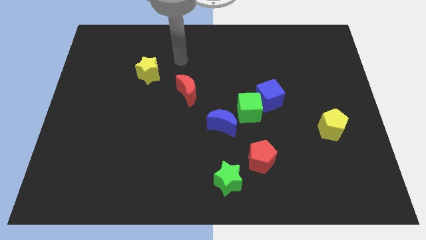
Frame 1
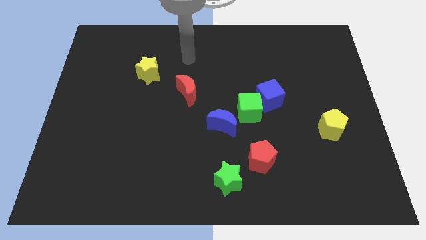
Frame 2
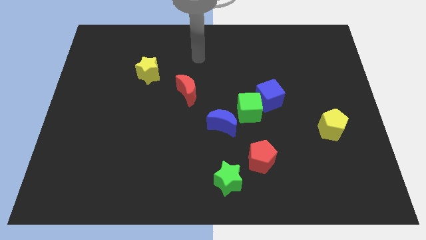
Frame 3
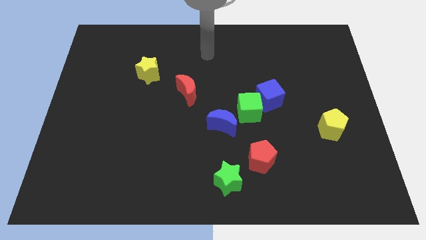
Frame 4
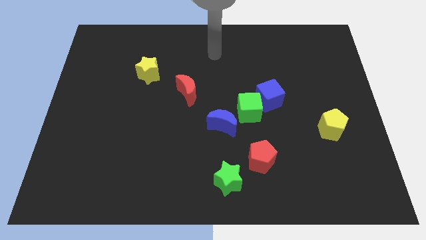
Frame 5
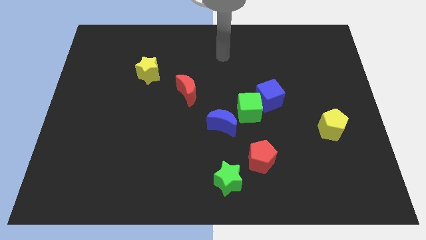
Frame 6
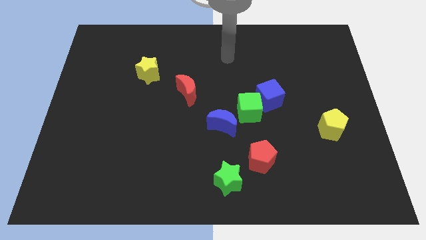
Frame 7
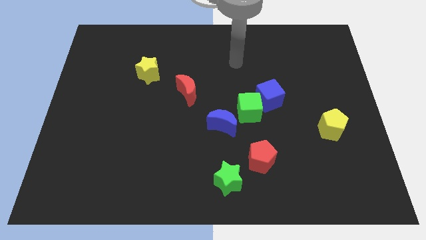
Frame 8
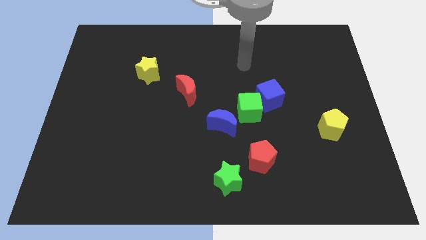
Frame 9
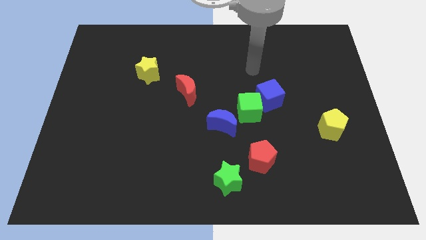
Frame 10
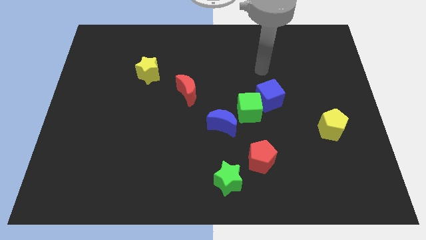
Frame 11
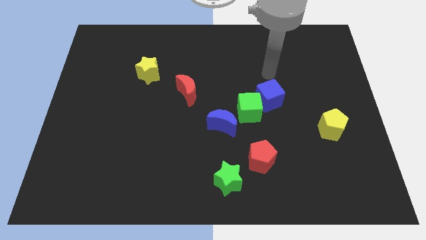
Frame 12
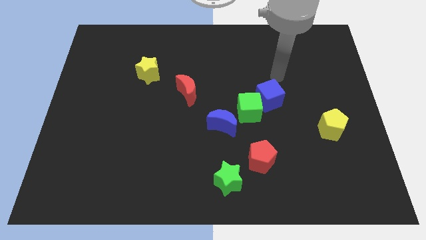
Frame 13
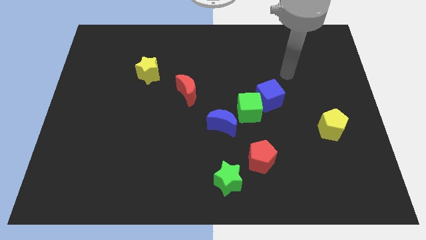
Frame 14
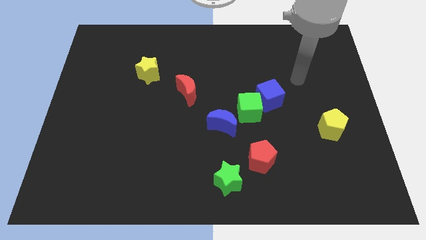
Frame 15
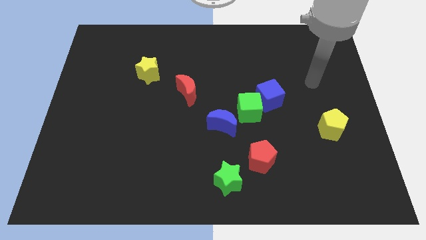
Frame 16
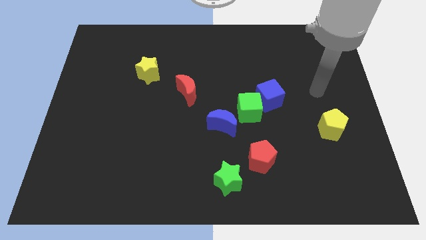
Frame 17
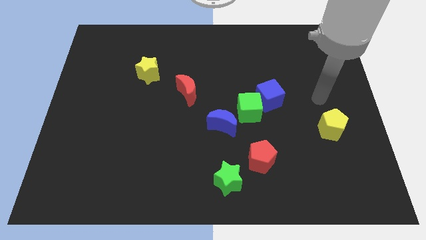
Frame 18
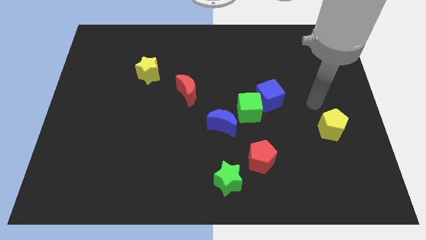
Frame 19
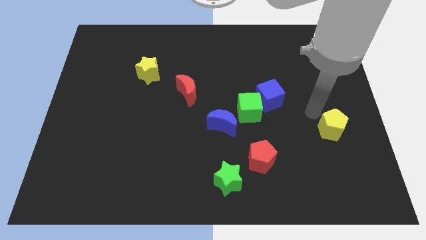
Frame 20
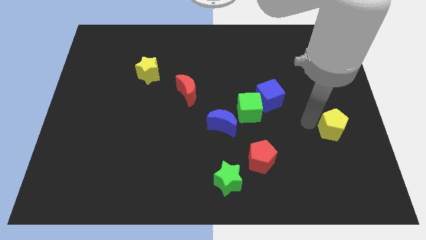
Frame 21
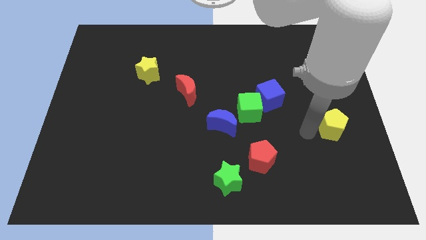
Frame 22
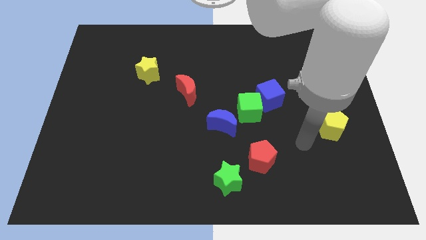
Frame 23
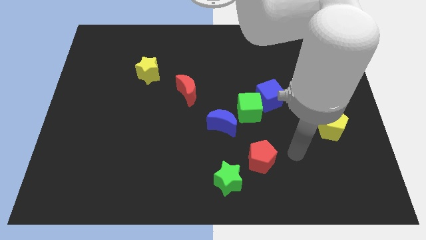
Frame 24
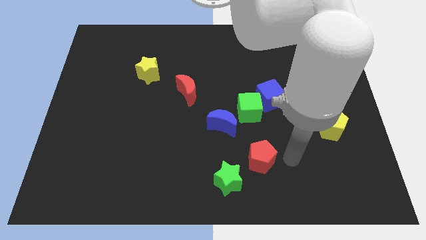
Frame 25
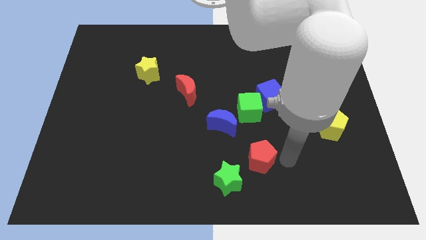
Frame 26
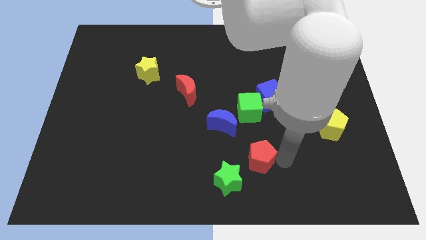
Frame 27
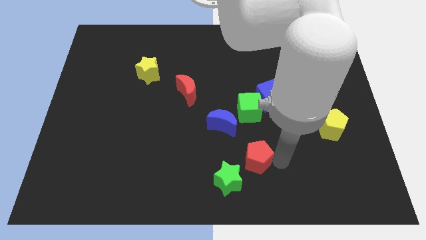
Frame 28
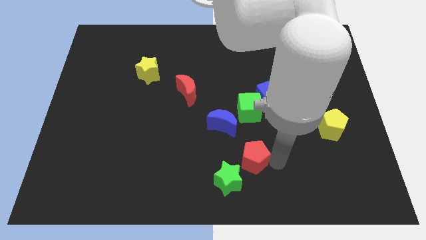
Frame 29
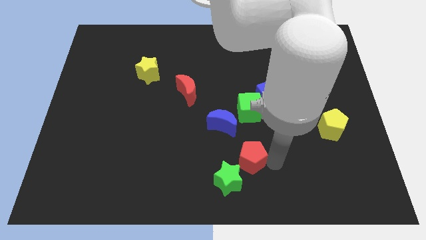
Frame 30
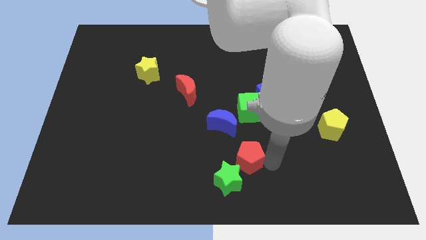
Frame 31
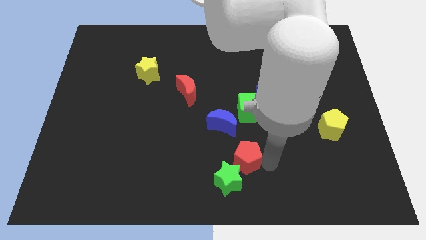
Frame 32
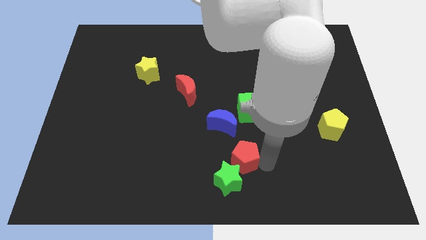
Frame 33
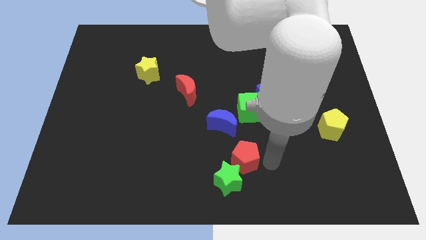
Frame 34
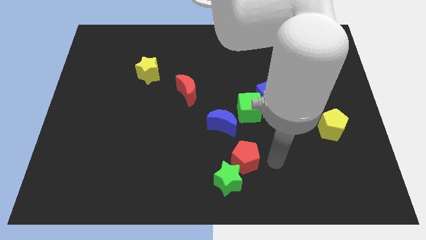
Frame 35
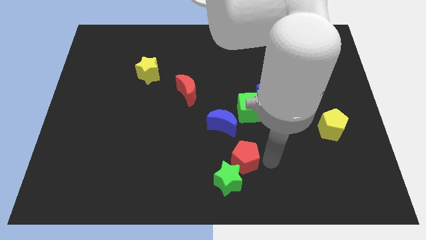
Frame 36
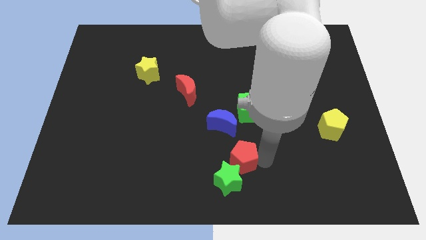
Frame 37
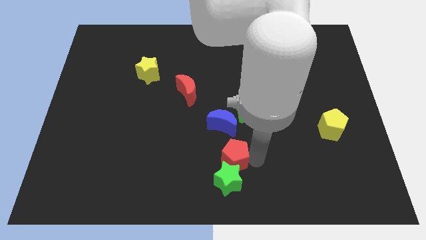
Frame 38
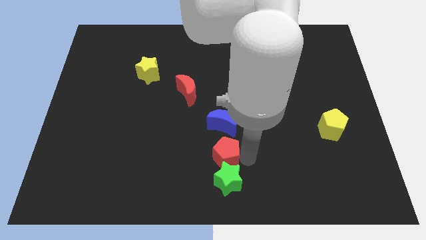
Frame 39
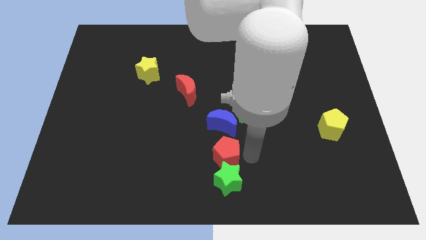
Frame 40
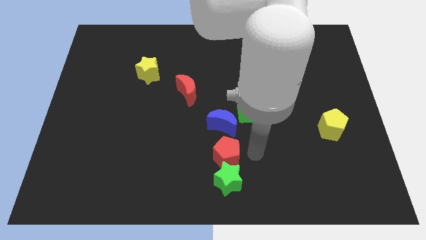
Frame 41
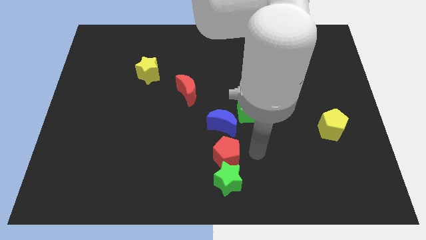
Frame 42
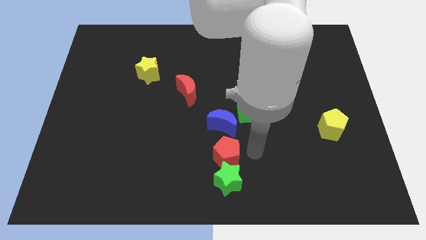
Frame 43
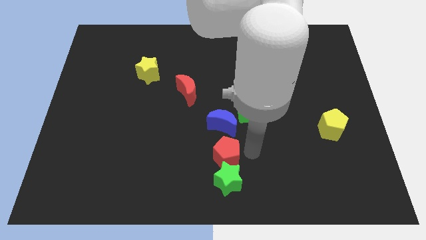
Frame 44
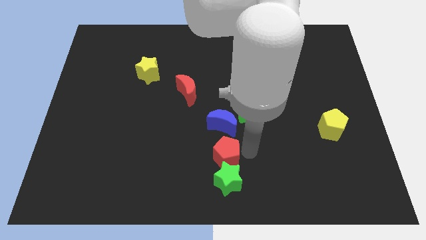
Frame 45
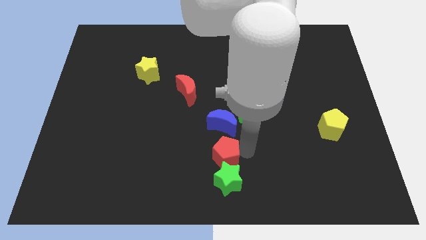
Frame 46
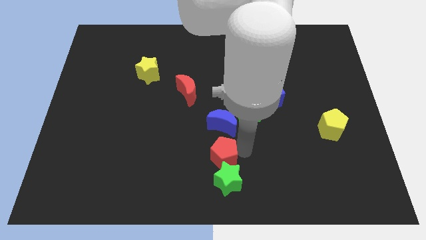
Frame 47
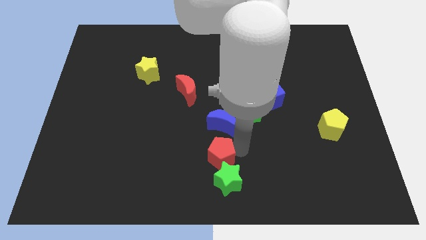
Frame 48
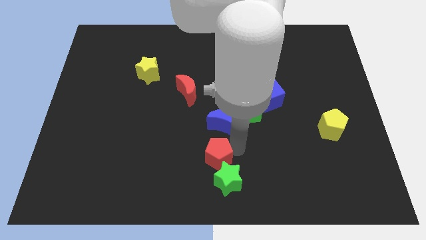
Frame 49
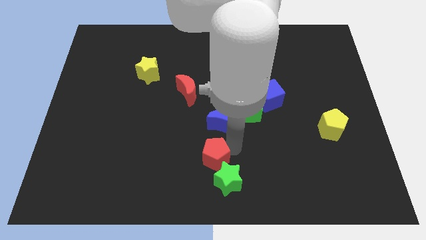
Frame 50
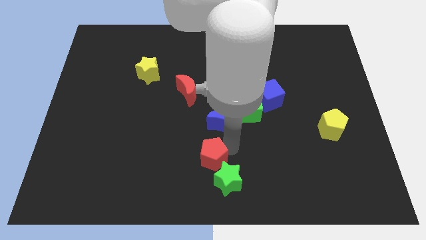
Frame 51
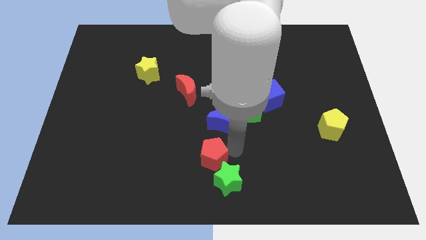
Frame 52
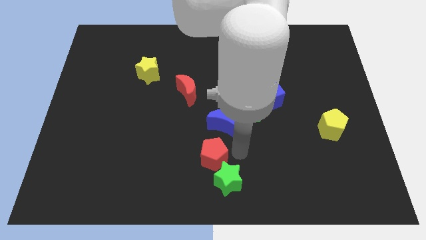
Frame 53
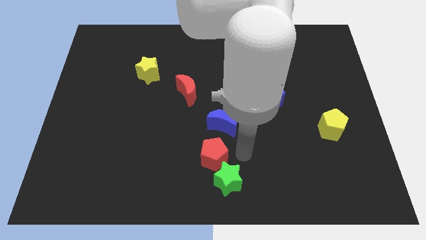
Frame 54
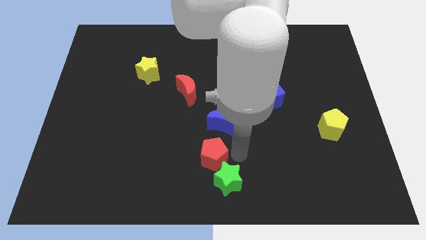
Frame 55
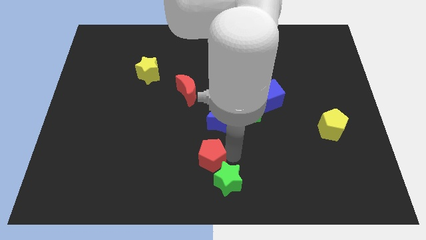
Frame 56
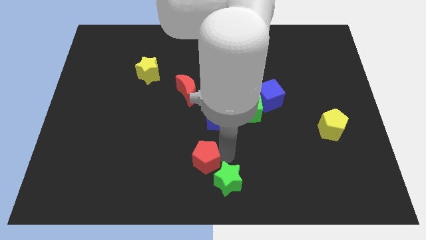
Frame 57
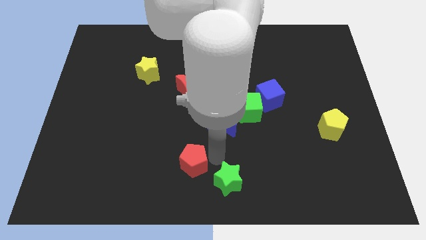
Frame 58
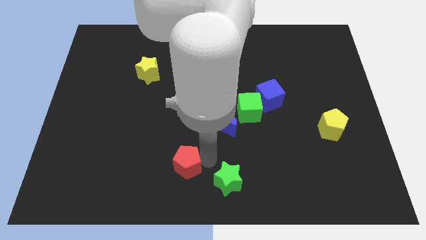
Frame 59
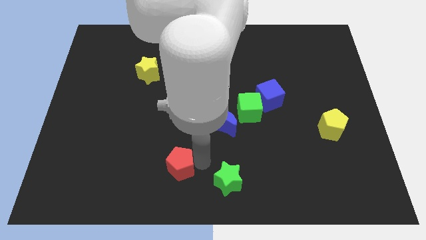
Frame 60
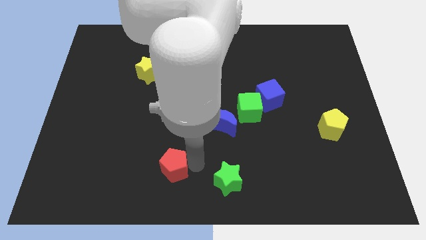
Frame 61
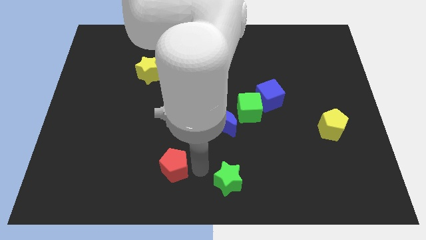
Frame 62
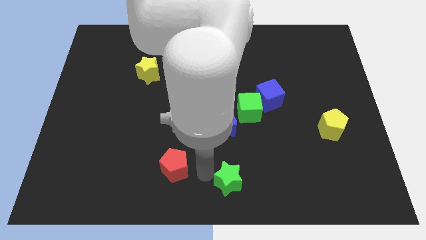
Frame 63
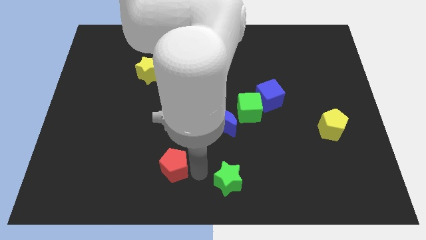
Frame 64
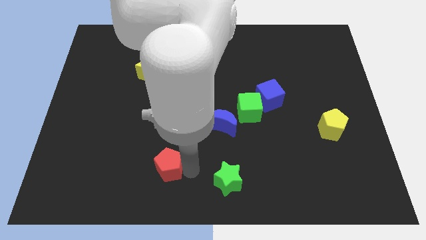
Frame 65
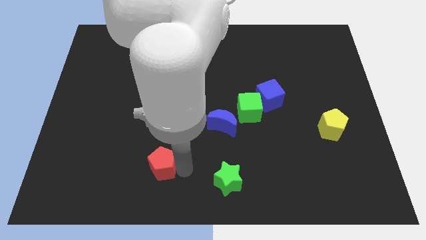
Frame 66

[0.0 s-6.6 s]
slide the red pentagon left

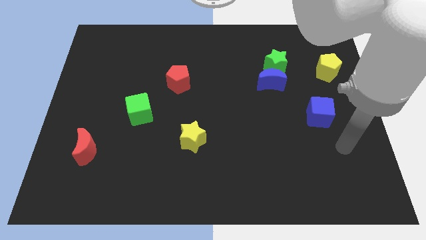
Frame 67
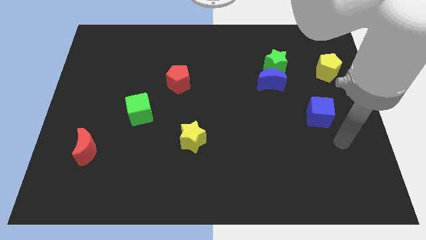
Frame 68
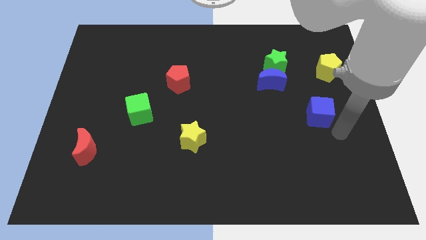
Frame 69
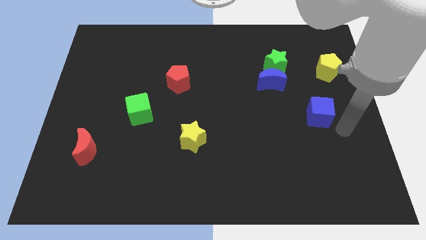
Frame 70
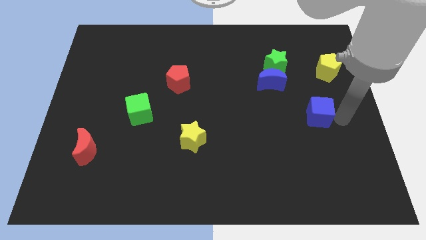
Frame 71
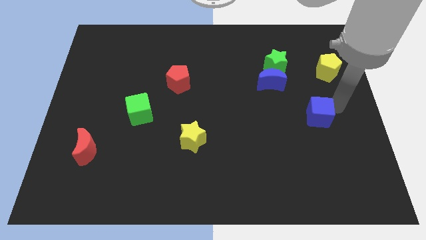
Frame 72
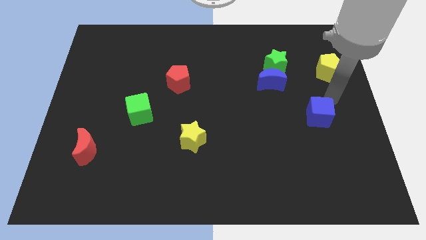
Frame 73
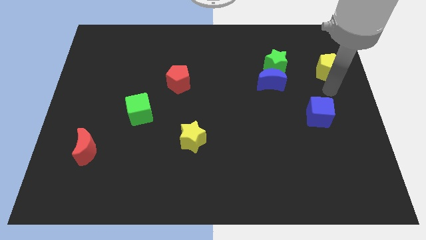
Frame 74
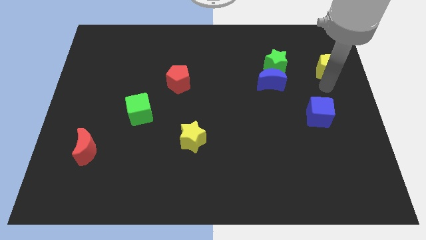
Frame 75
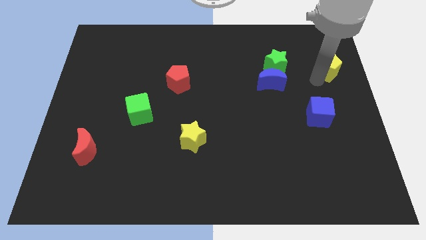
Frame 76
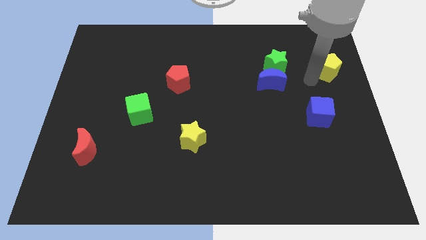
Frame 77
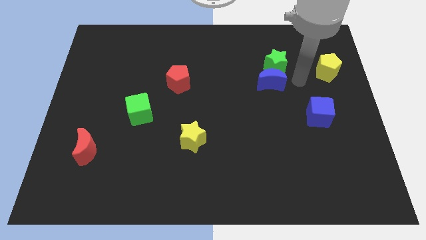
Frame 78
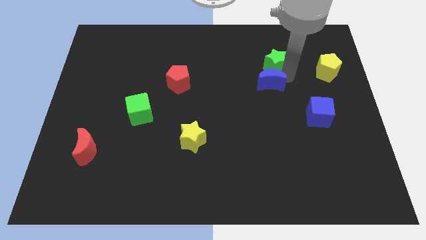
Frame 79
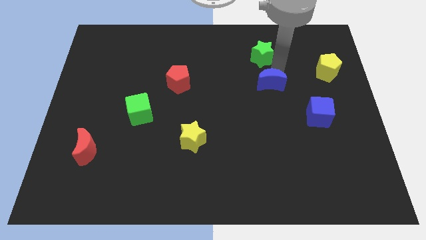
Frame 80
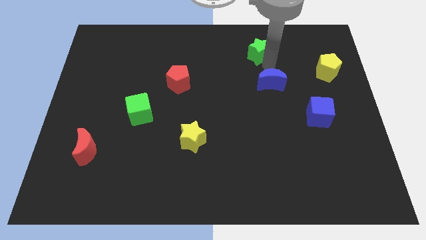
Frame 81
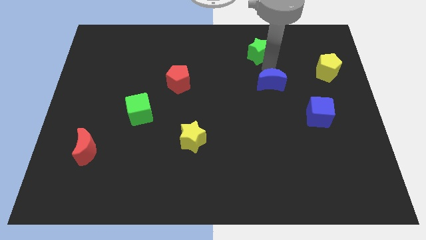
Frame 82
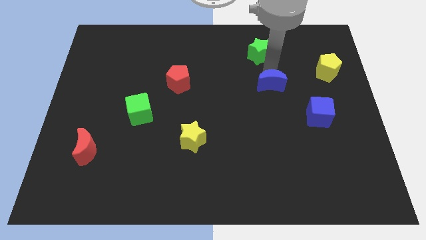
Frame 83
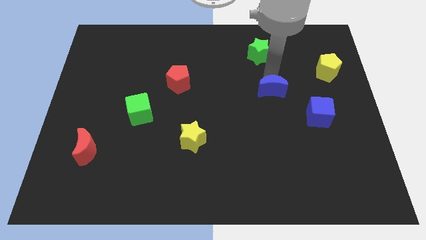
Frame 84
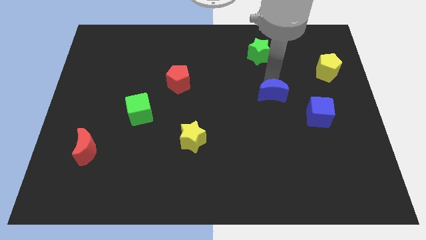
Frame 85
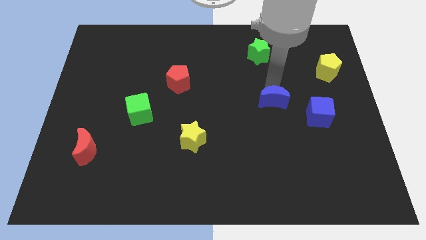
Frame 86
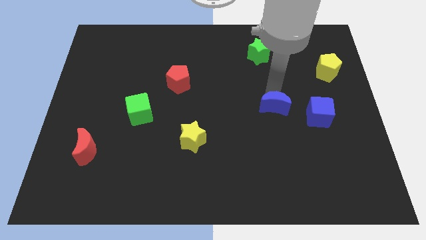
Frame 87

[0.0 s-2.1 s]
push the blue moon down a little
